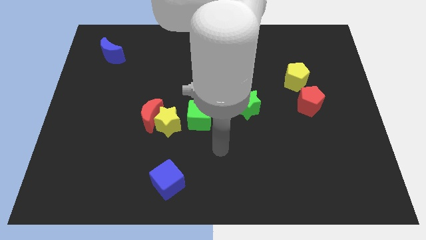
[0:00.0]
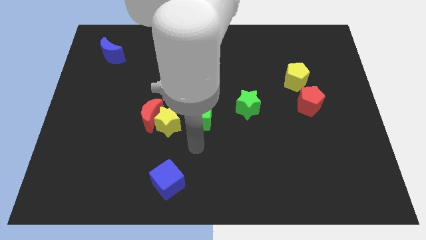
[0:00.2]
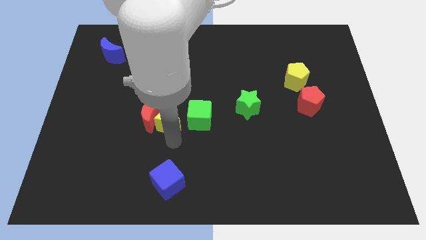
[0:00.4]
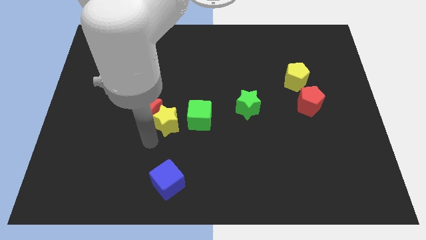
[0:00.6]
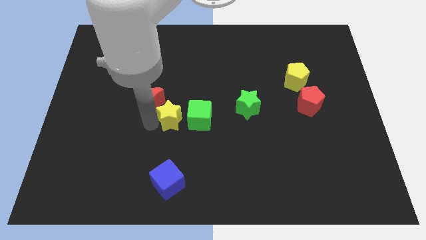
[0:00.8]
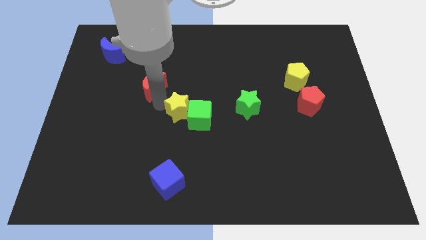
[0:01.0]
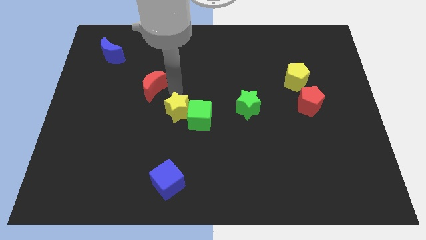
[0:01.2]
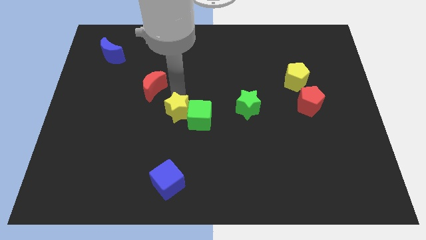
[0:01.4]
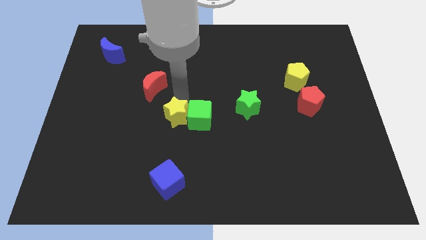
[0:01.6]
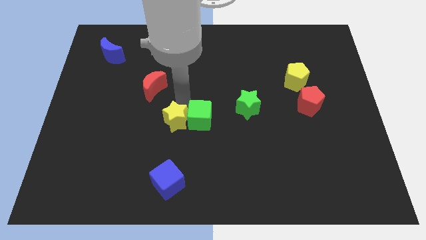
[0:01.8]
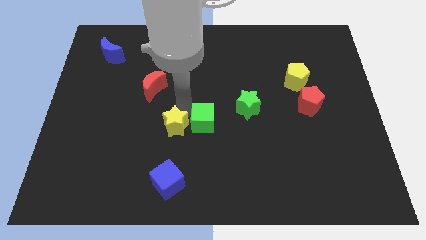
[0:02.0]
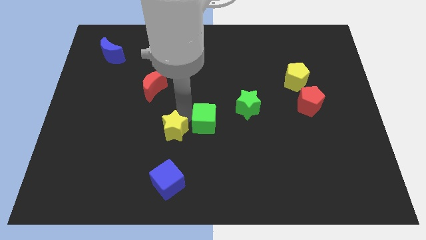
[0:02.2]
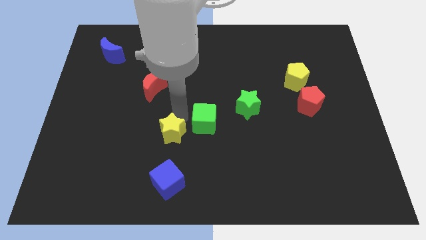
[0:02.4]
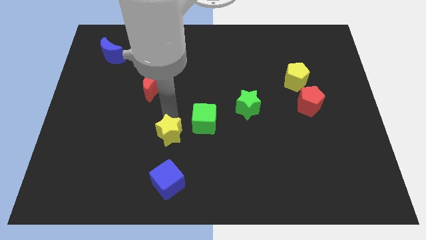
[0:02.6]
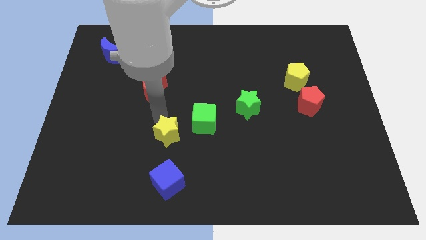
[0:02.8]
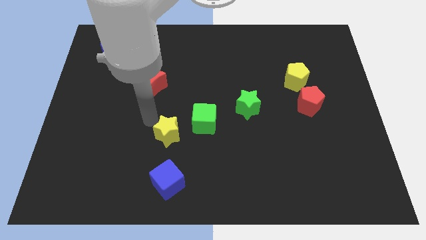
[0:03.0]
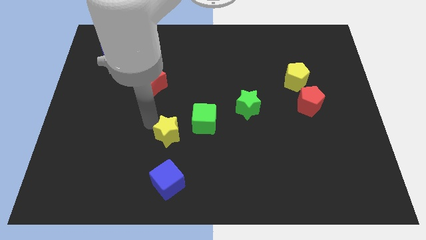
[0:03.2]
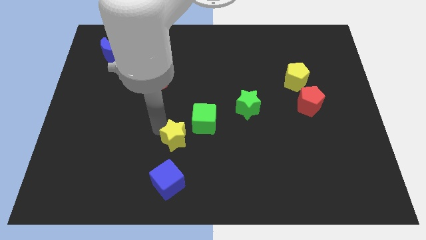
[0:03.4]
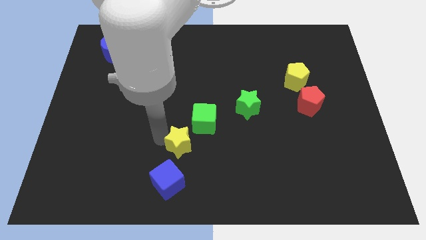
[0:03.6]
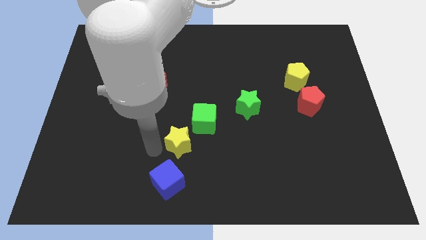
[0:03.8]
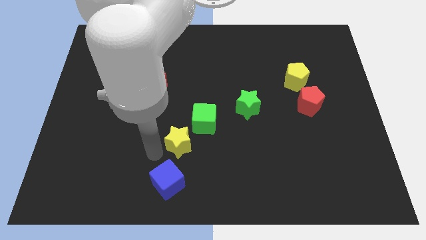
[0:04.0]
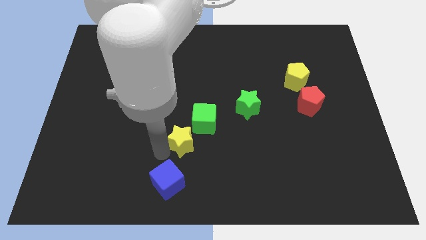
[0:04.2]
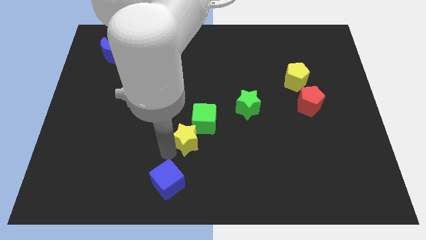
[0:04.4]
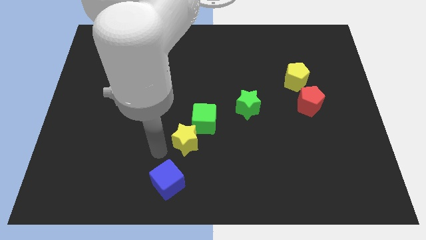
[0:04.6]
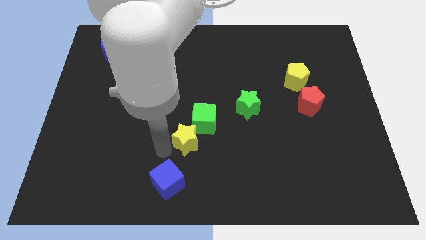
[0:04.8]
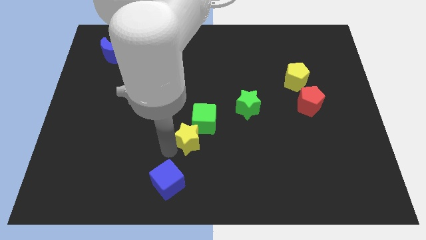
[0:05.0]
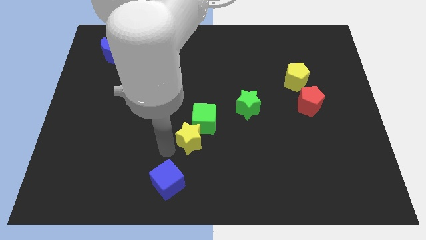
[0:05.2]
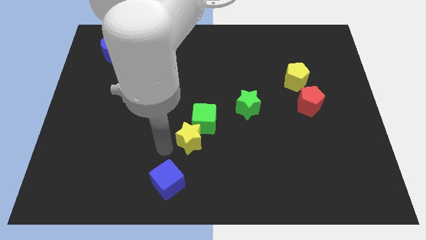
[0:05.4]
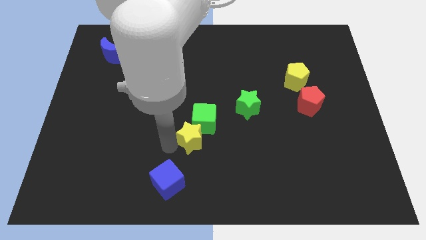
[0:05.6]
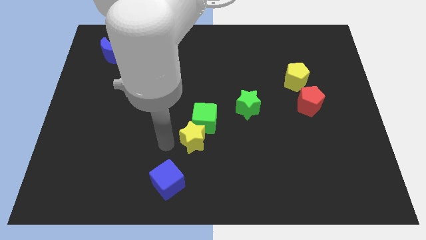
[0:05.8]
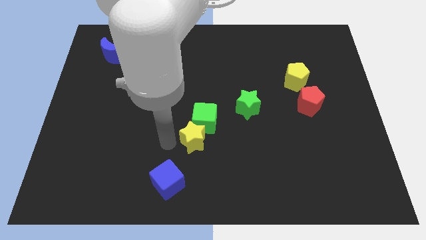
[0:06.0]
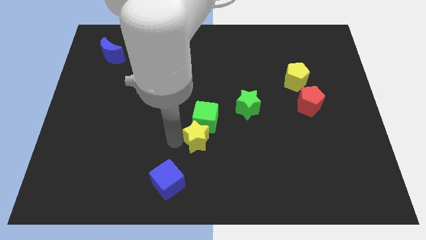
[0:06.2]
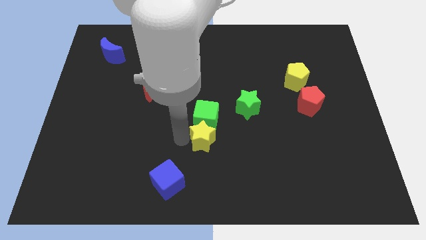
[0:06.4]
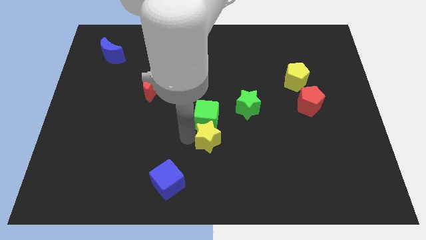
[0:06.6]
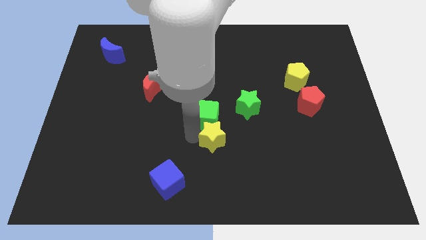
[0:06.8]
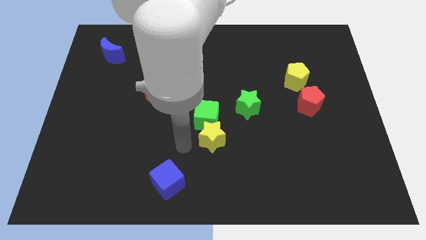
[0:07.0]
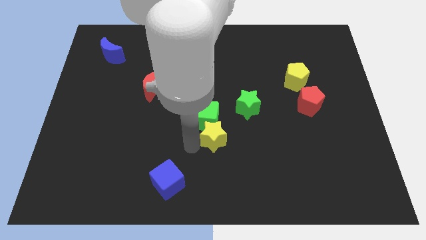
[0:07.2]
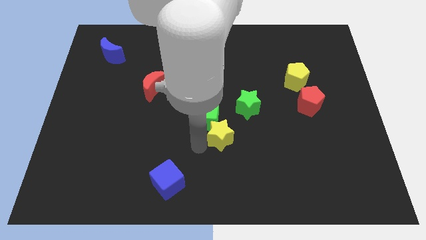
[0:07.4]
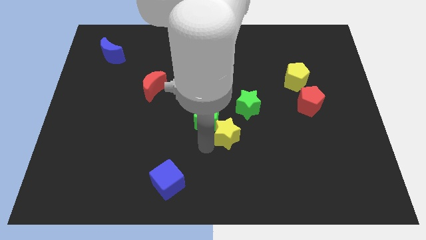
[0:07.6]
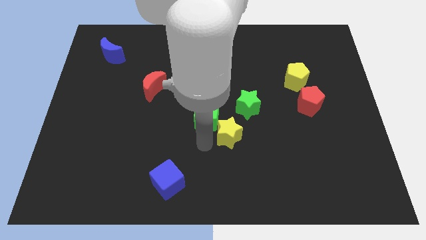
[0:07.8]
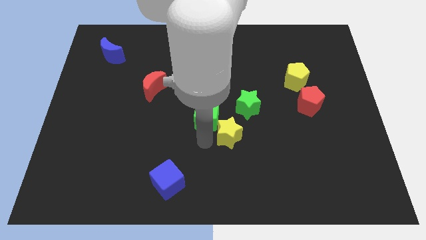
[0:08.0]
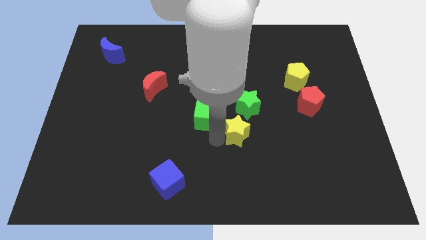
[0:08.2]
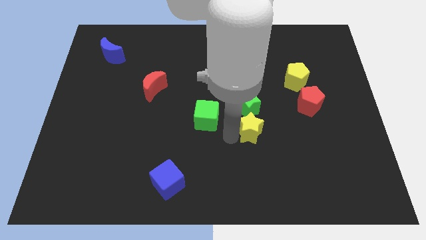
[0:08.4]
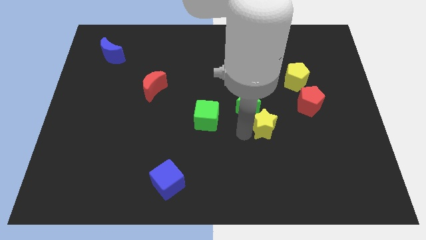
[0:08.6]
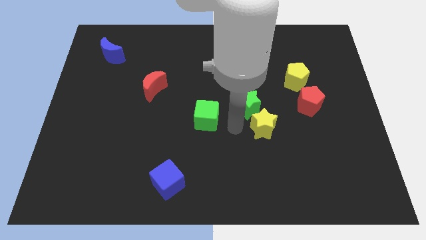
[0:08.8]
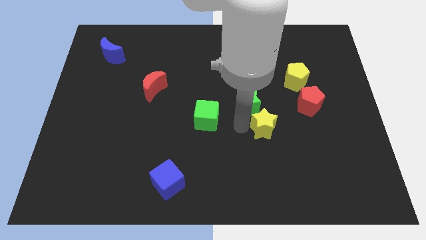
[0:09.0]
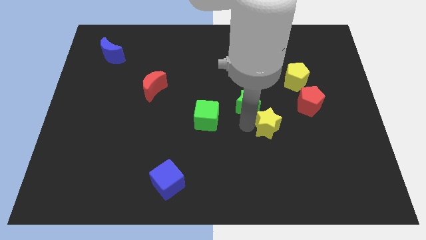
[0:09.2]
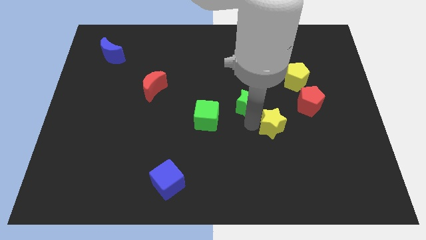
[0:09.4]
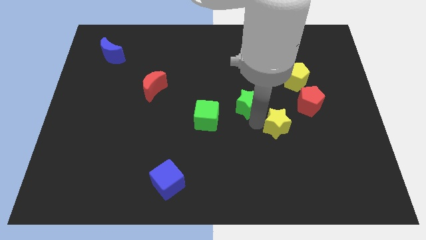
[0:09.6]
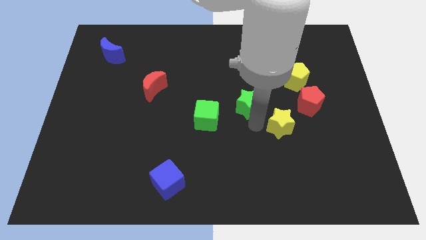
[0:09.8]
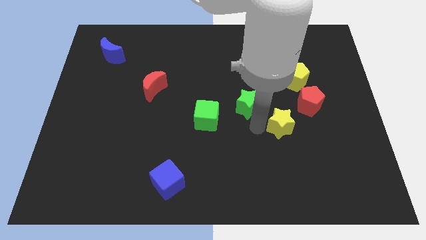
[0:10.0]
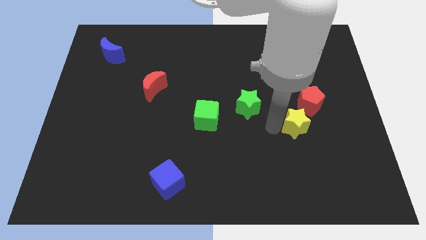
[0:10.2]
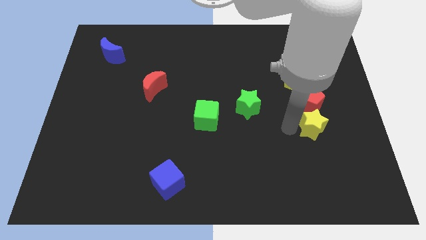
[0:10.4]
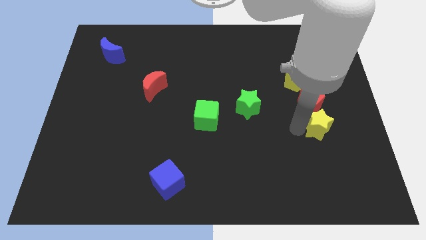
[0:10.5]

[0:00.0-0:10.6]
put the yellow star to the bottom right side of the red pentagon
